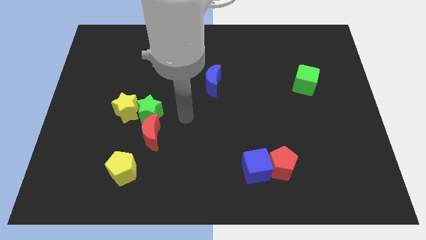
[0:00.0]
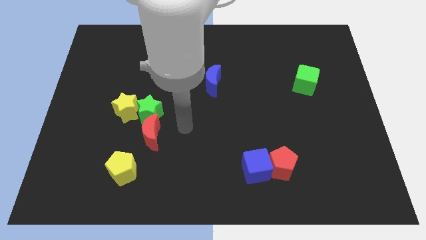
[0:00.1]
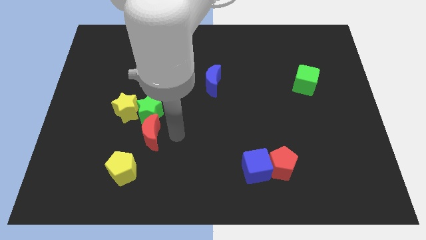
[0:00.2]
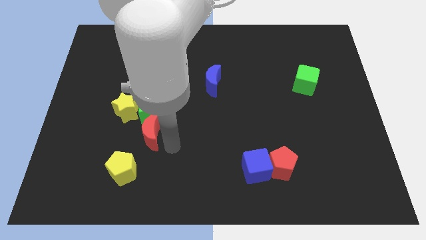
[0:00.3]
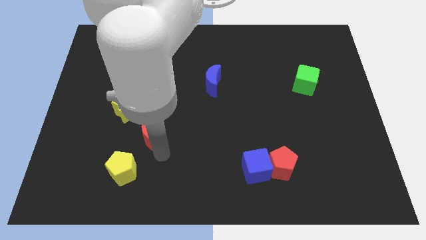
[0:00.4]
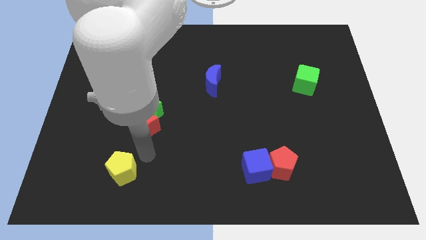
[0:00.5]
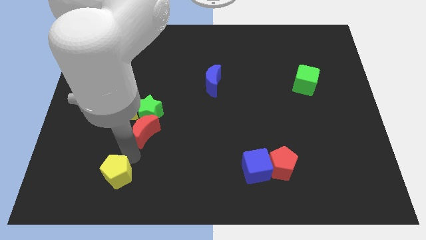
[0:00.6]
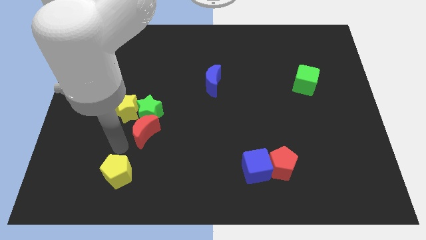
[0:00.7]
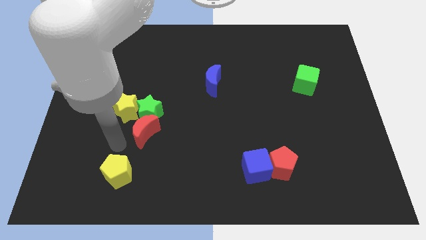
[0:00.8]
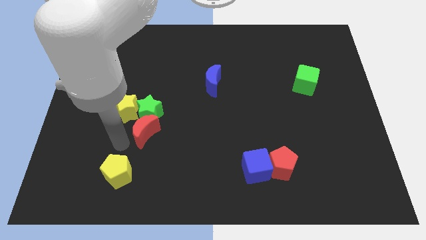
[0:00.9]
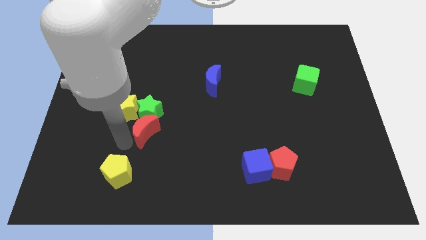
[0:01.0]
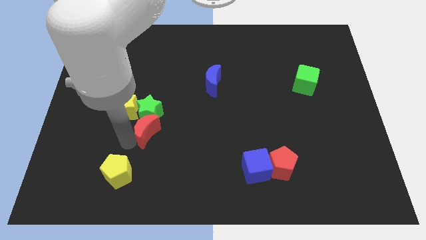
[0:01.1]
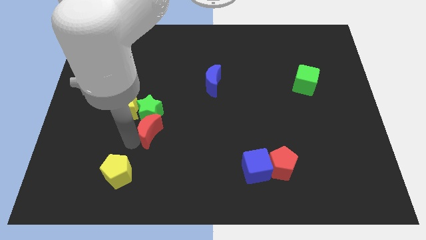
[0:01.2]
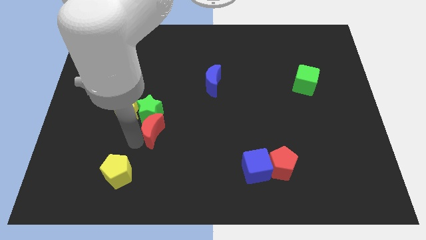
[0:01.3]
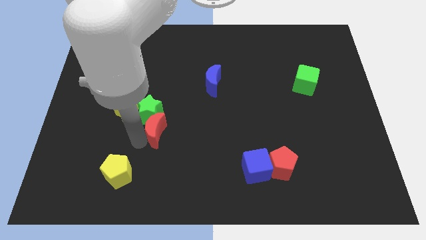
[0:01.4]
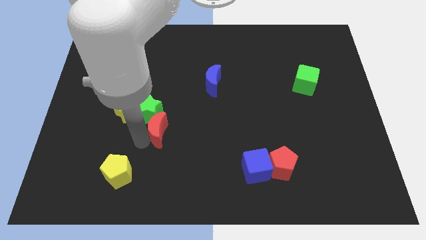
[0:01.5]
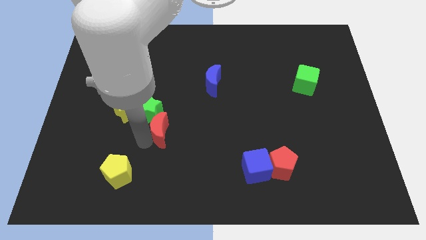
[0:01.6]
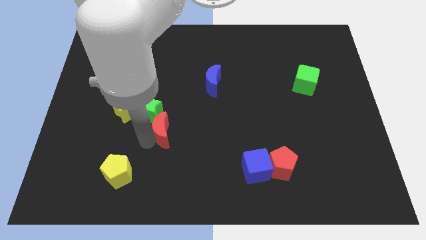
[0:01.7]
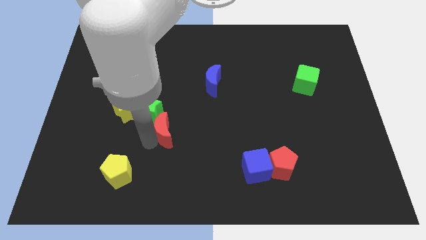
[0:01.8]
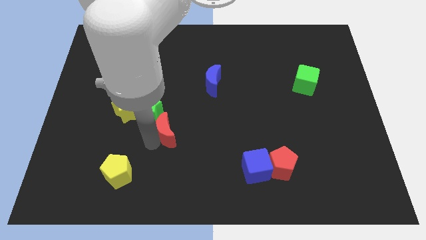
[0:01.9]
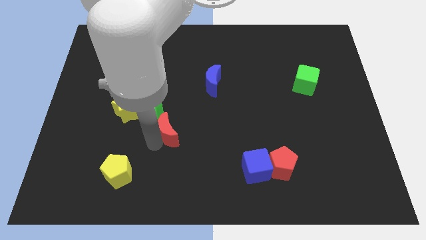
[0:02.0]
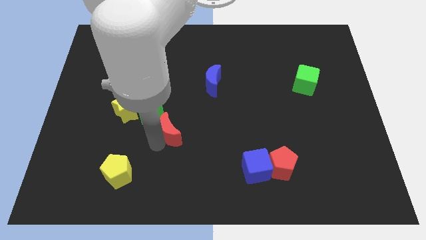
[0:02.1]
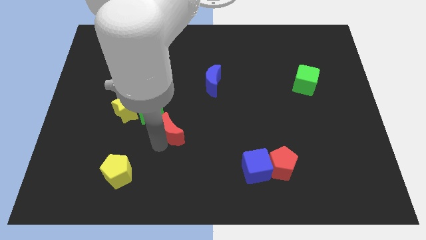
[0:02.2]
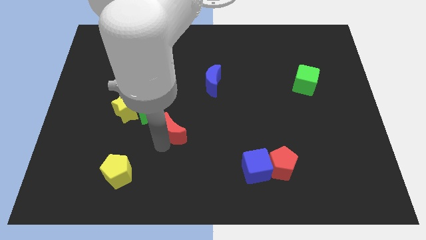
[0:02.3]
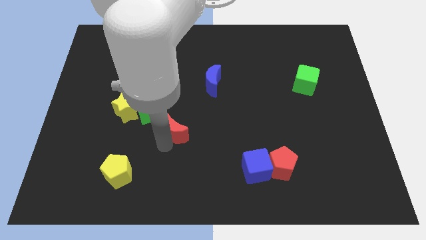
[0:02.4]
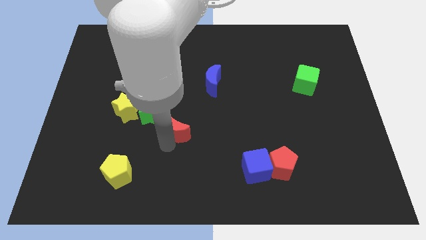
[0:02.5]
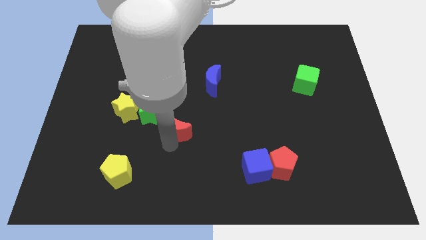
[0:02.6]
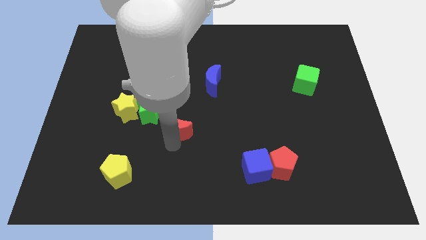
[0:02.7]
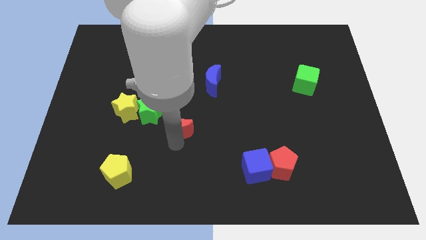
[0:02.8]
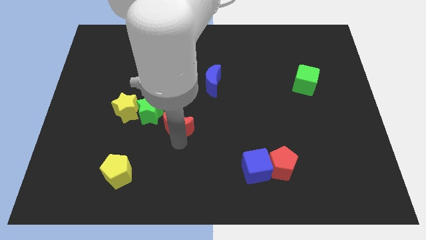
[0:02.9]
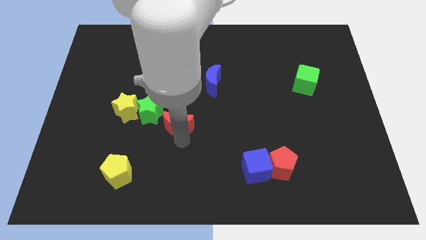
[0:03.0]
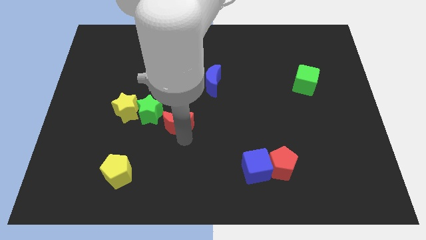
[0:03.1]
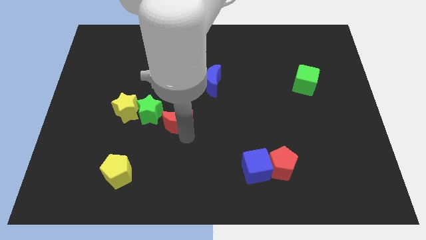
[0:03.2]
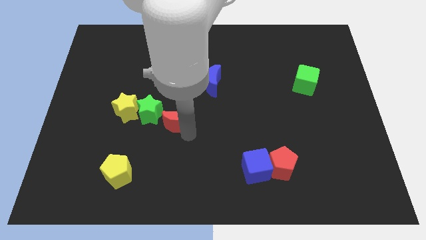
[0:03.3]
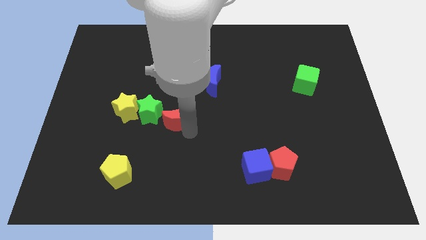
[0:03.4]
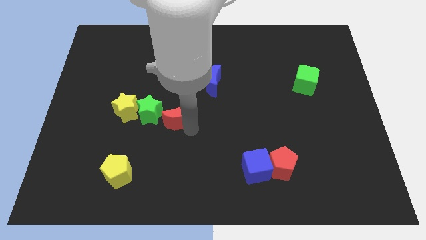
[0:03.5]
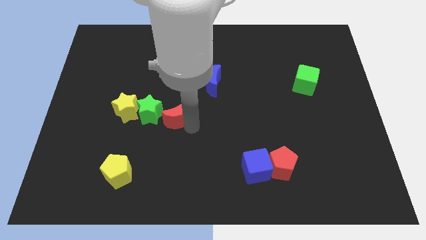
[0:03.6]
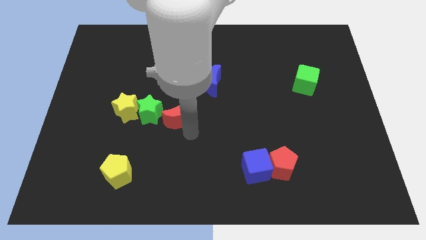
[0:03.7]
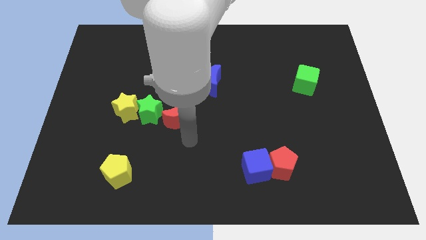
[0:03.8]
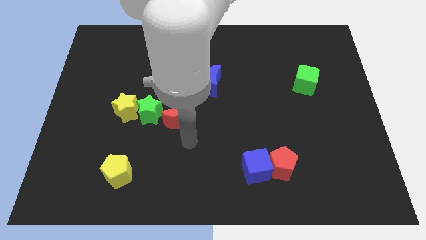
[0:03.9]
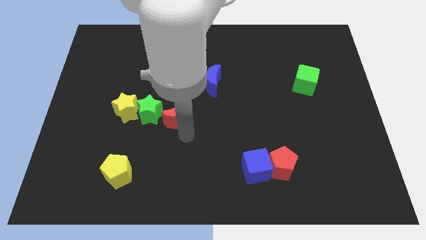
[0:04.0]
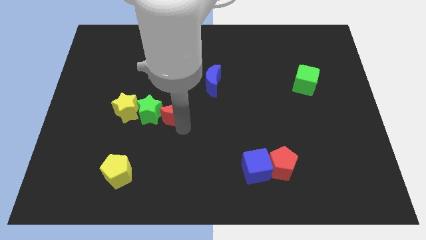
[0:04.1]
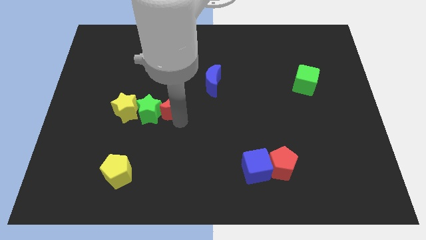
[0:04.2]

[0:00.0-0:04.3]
push the red moon a little bit up

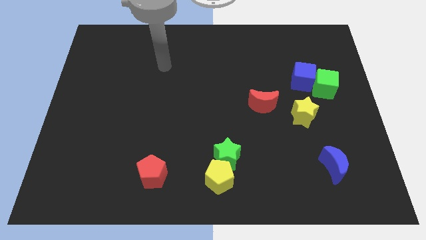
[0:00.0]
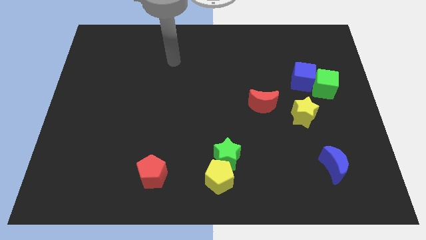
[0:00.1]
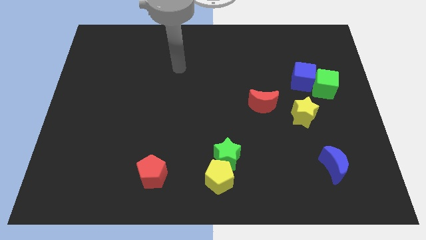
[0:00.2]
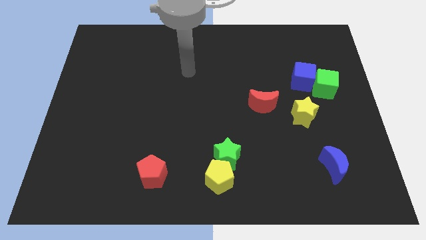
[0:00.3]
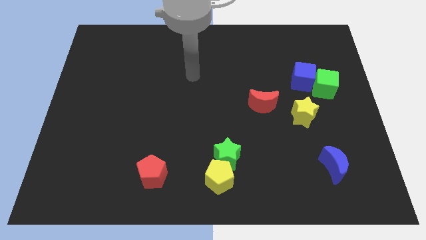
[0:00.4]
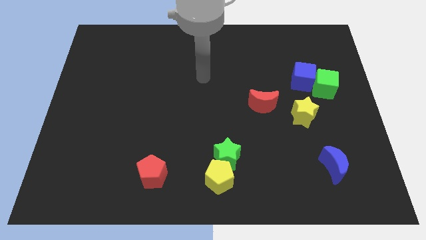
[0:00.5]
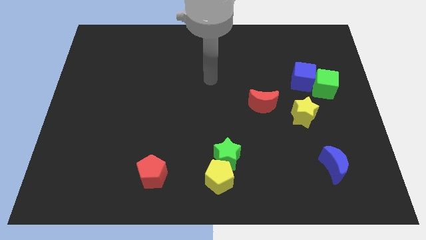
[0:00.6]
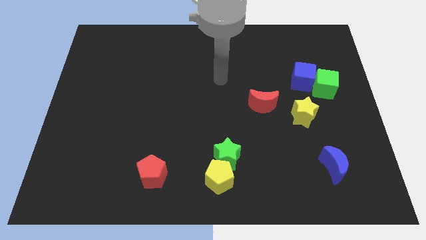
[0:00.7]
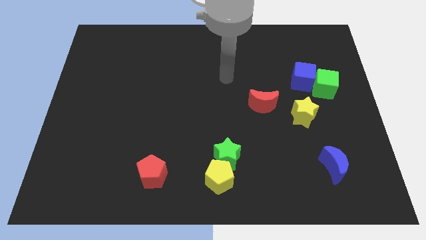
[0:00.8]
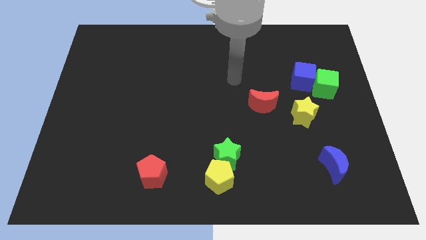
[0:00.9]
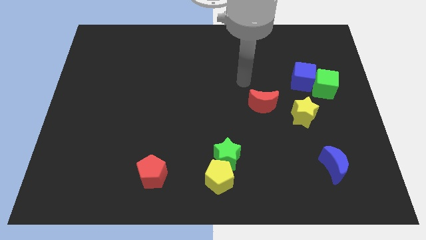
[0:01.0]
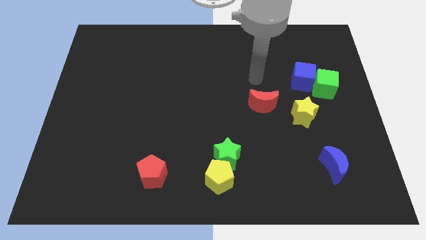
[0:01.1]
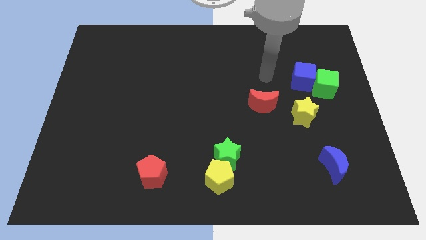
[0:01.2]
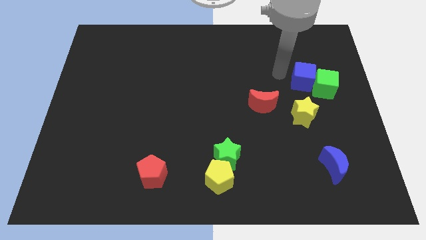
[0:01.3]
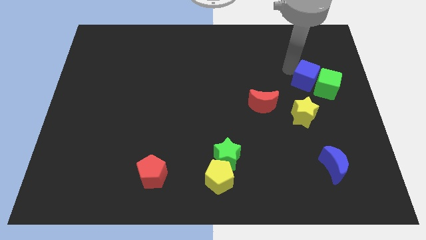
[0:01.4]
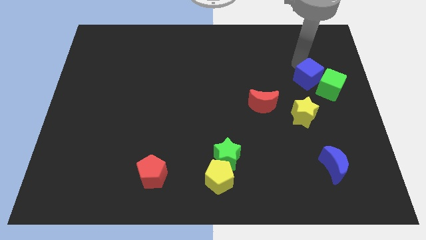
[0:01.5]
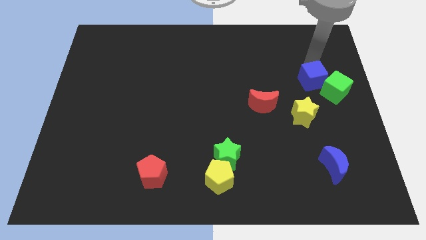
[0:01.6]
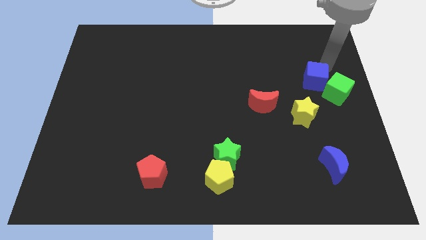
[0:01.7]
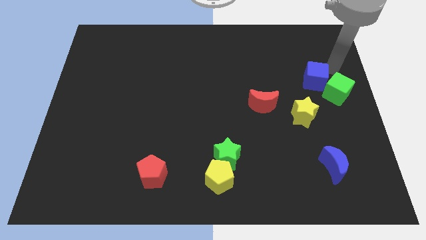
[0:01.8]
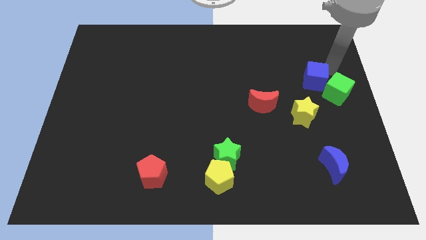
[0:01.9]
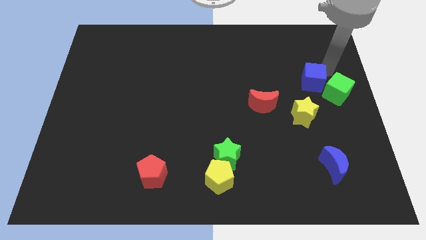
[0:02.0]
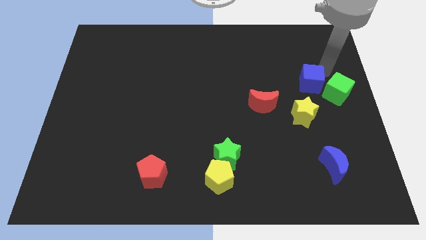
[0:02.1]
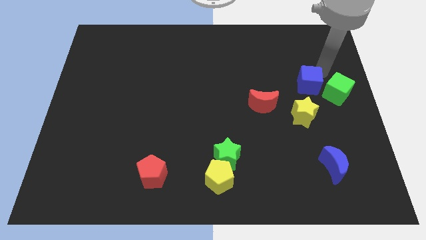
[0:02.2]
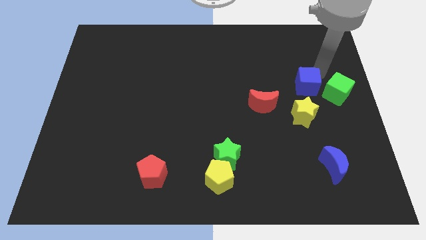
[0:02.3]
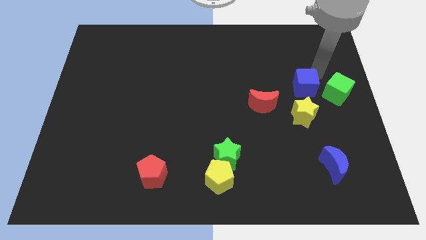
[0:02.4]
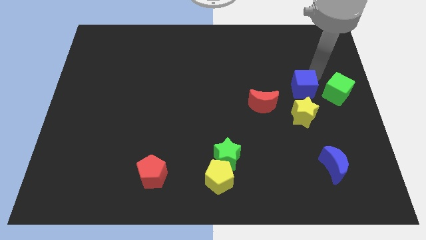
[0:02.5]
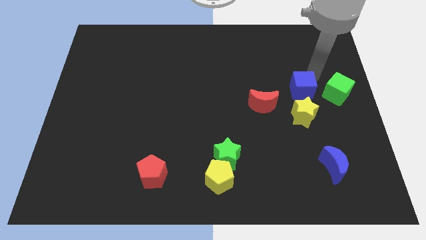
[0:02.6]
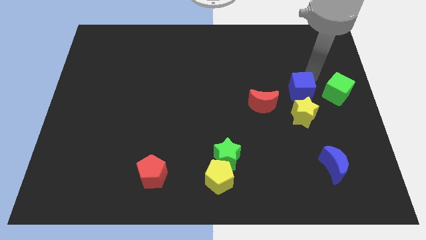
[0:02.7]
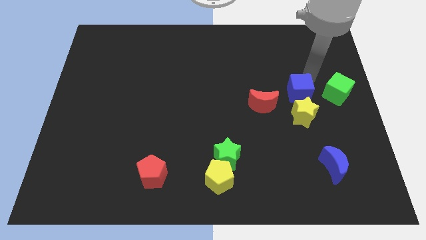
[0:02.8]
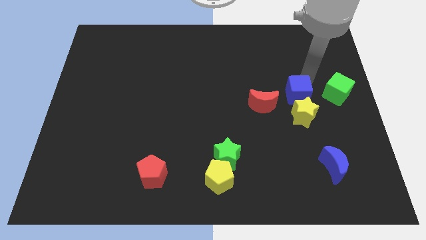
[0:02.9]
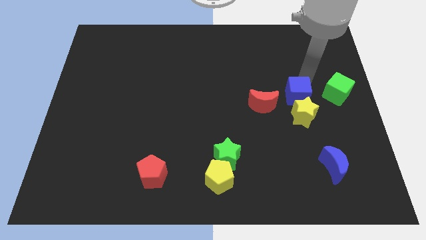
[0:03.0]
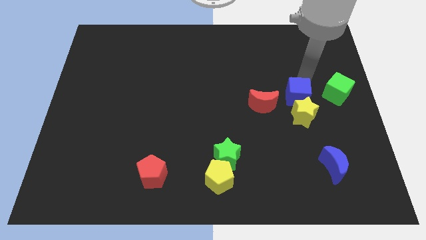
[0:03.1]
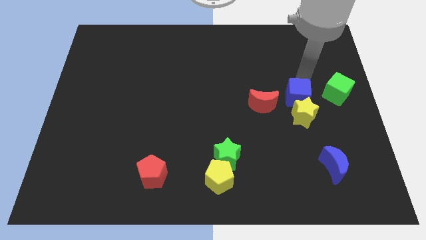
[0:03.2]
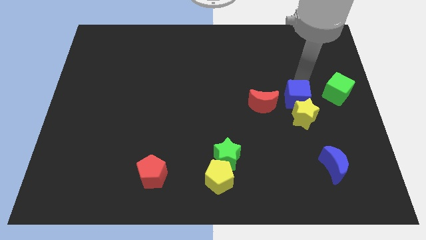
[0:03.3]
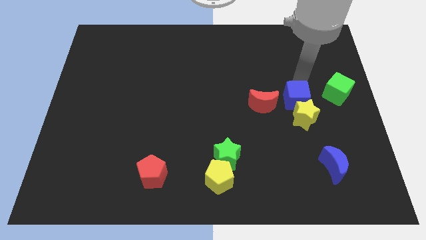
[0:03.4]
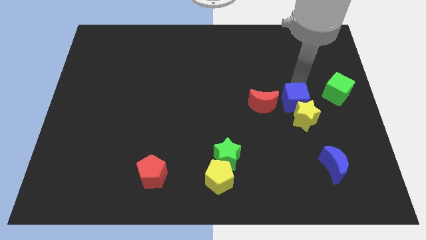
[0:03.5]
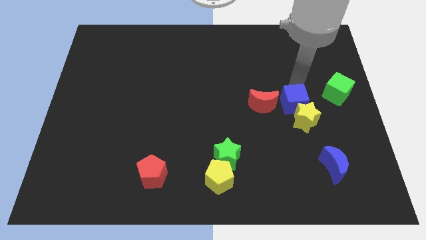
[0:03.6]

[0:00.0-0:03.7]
slide the blue cube diagonally down and to the left slightly
